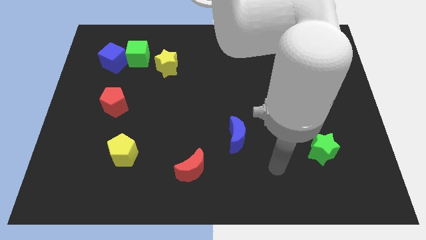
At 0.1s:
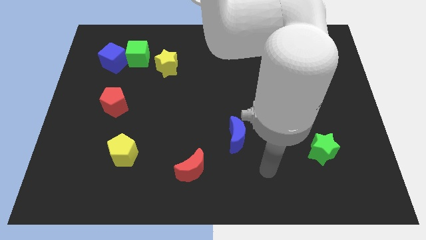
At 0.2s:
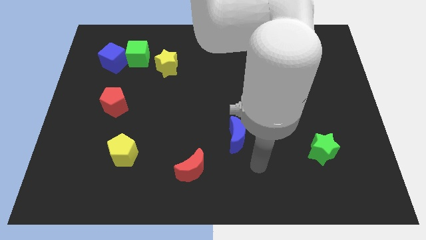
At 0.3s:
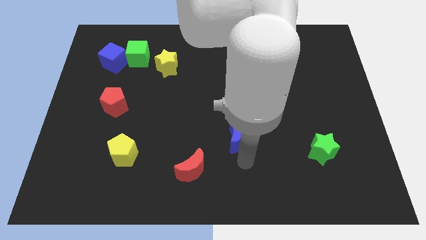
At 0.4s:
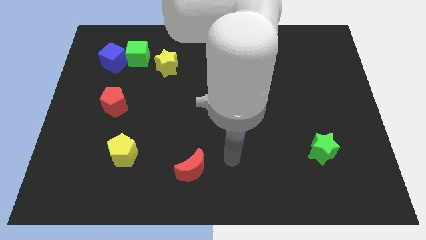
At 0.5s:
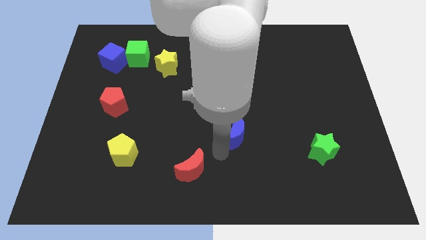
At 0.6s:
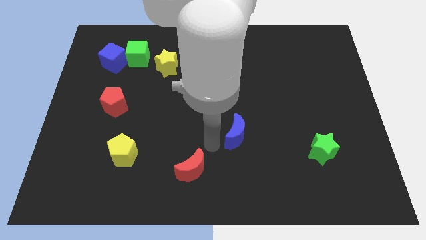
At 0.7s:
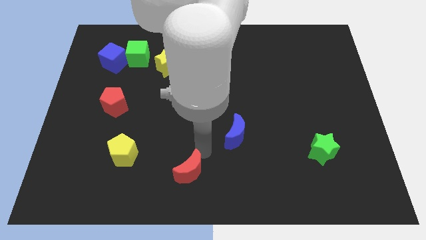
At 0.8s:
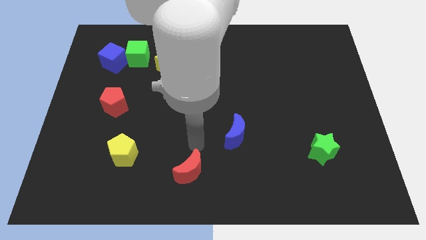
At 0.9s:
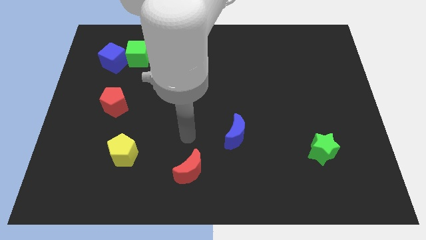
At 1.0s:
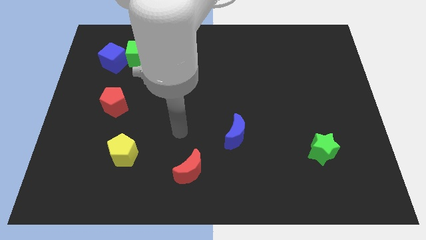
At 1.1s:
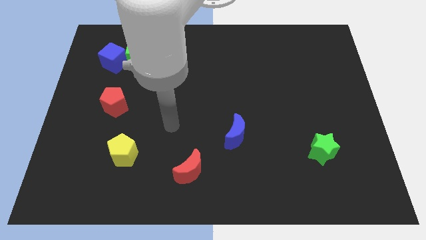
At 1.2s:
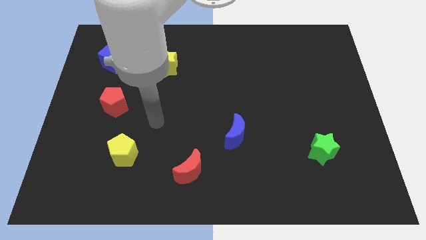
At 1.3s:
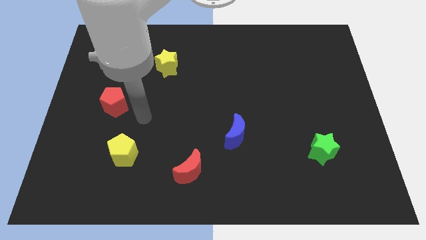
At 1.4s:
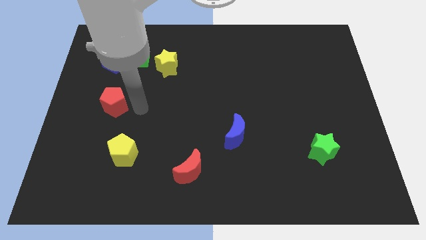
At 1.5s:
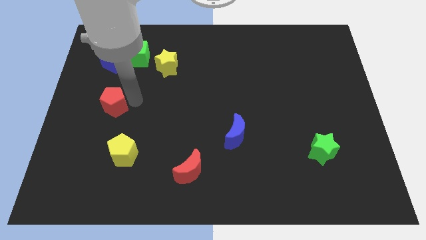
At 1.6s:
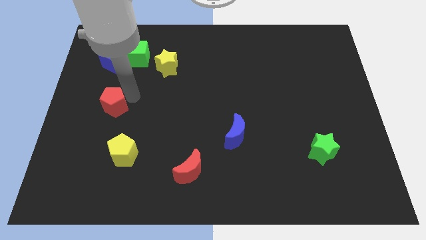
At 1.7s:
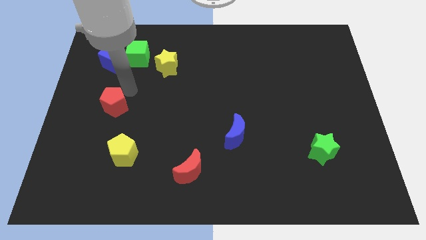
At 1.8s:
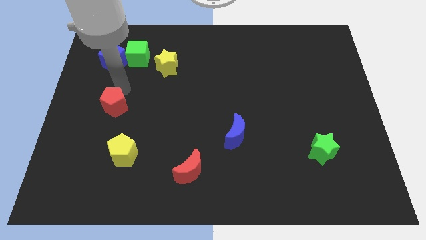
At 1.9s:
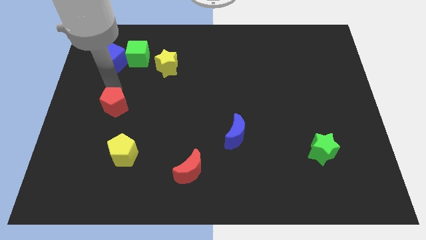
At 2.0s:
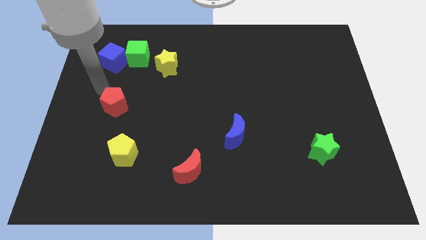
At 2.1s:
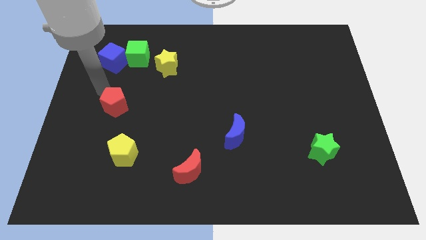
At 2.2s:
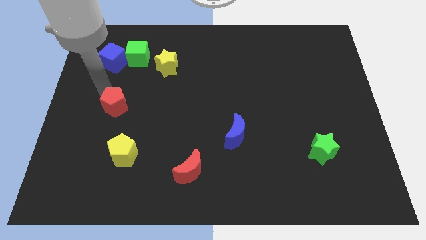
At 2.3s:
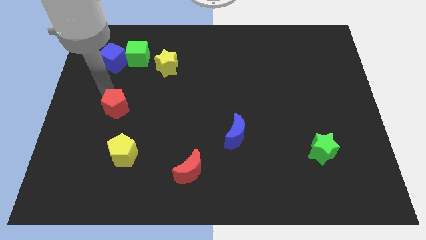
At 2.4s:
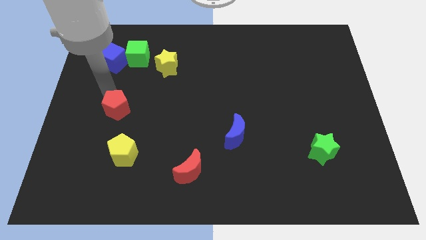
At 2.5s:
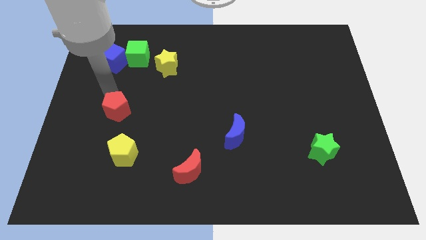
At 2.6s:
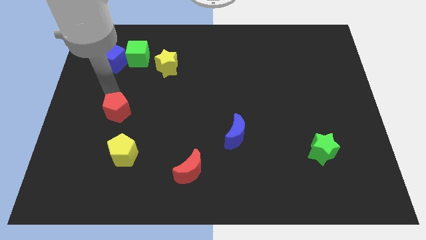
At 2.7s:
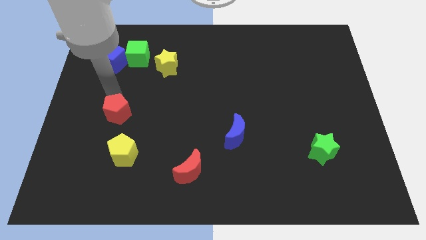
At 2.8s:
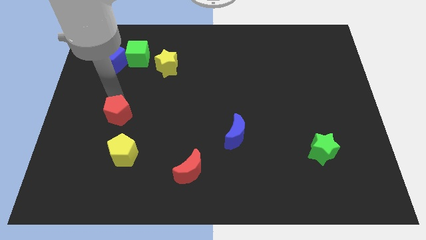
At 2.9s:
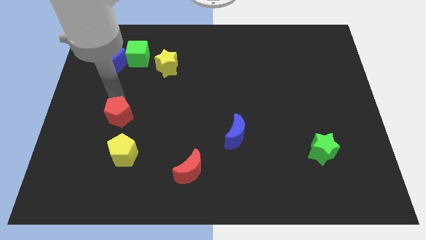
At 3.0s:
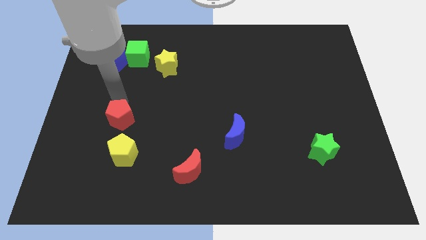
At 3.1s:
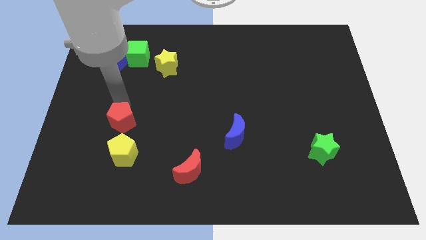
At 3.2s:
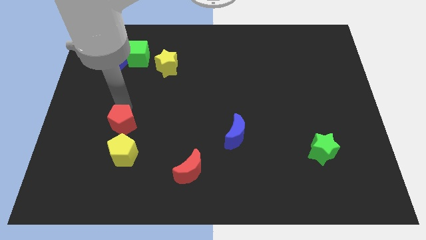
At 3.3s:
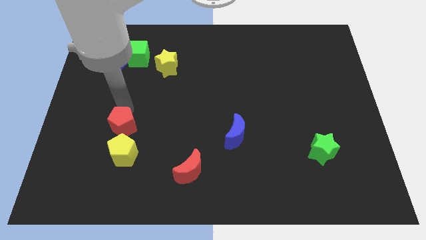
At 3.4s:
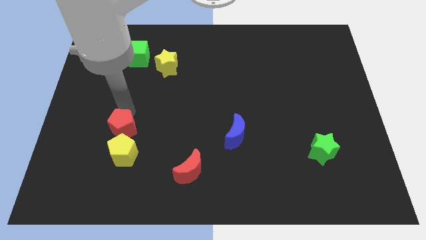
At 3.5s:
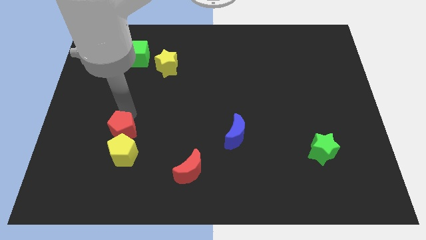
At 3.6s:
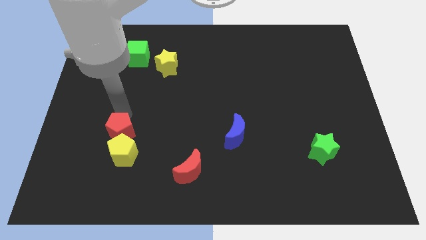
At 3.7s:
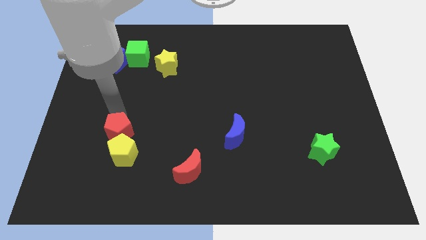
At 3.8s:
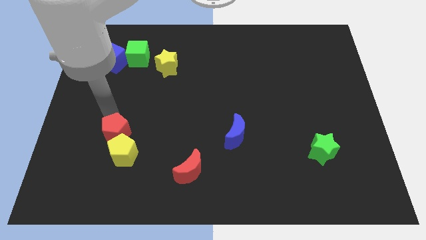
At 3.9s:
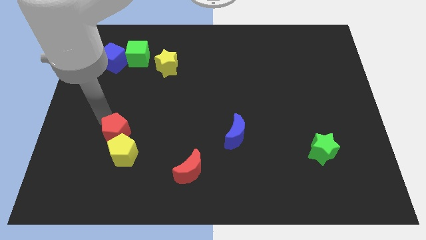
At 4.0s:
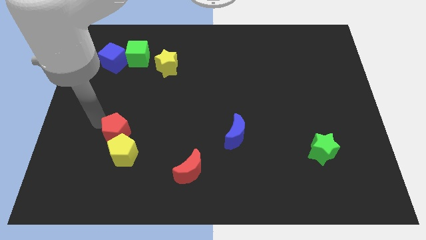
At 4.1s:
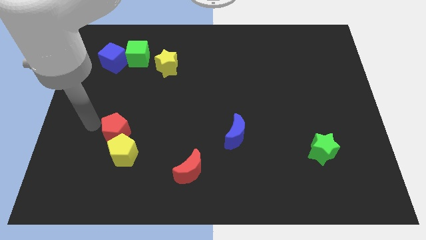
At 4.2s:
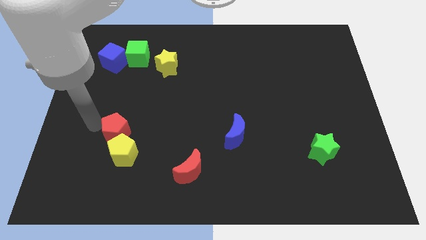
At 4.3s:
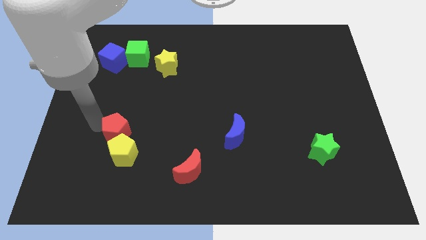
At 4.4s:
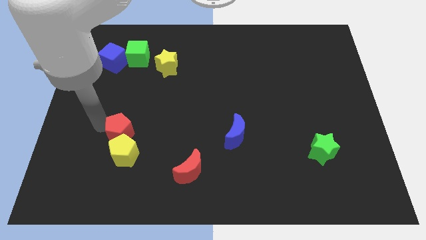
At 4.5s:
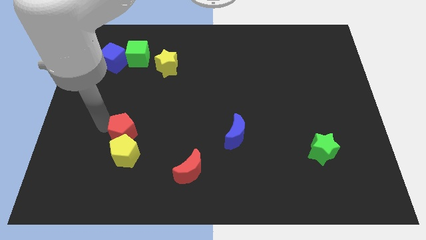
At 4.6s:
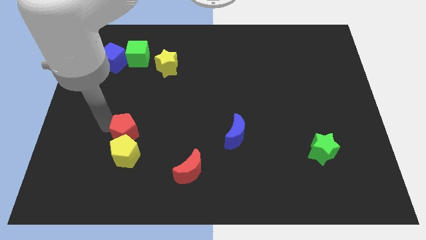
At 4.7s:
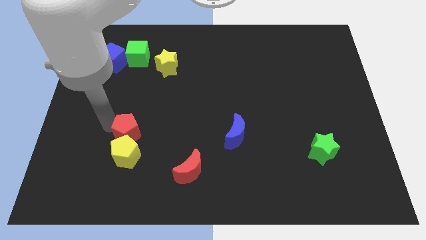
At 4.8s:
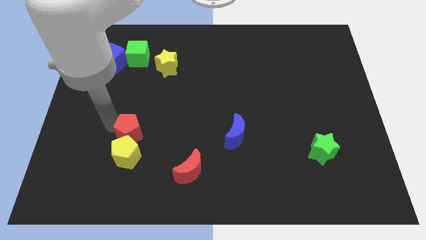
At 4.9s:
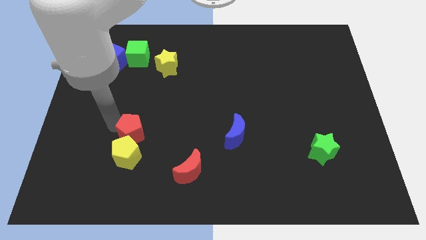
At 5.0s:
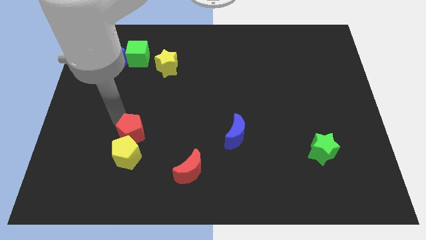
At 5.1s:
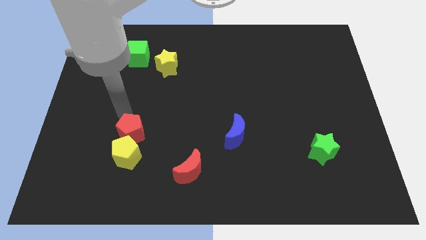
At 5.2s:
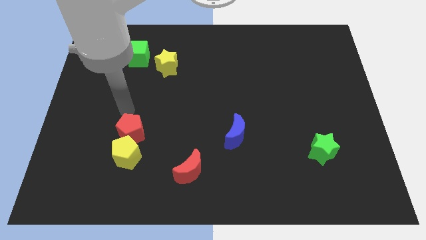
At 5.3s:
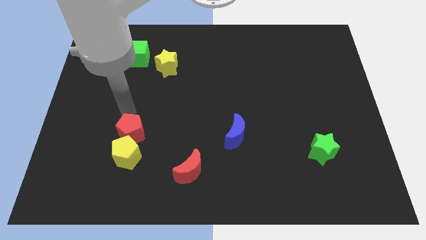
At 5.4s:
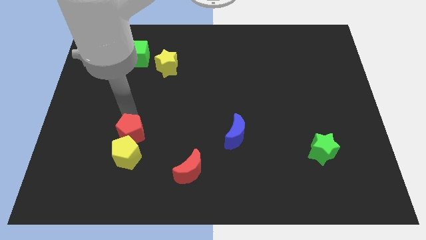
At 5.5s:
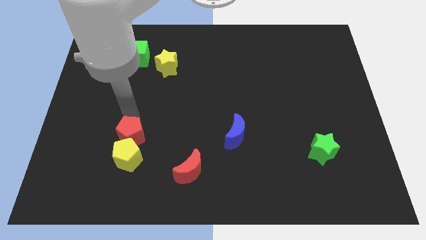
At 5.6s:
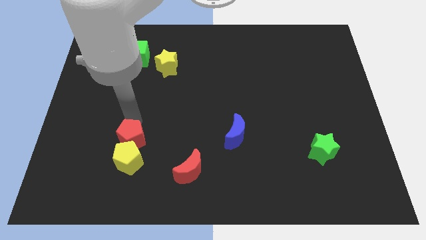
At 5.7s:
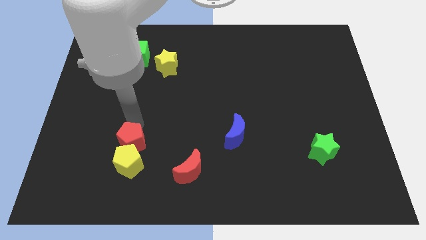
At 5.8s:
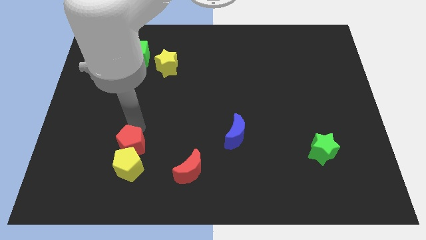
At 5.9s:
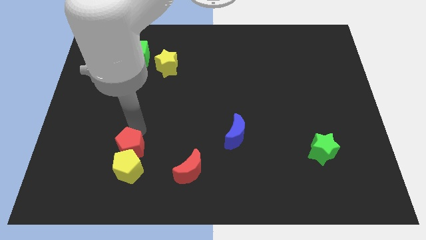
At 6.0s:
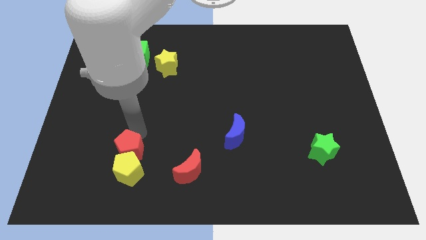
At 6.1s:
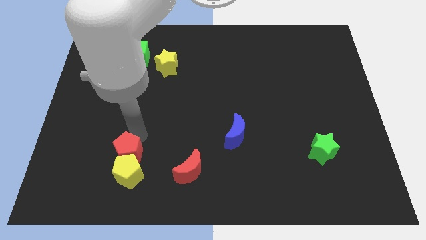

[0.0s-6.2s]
move the red pentagon to the left side of the red moon

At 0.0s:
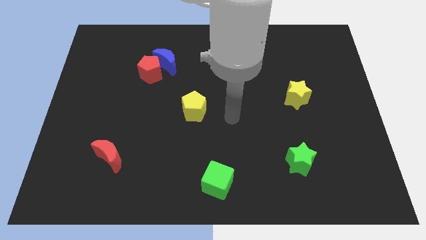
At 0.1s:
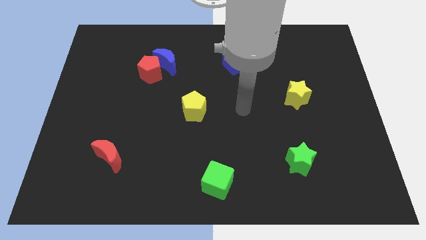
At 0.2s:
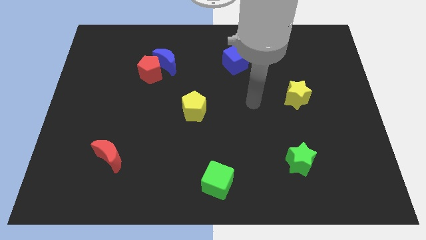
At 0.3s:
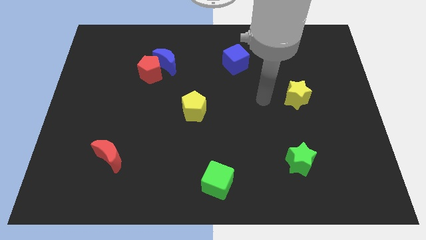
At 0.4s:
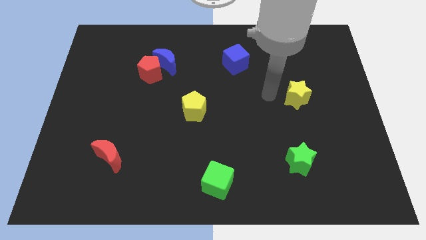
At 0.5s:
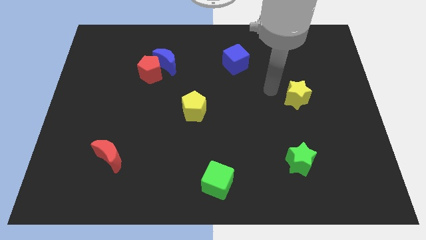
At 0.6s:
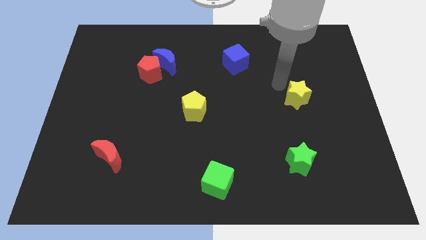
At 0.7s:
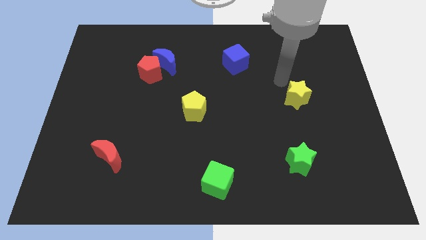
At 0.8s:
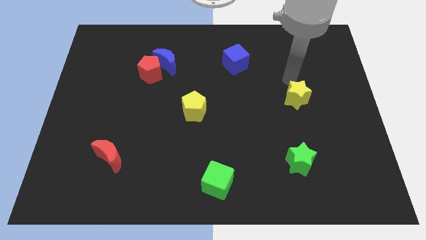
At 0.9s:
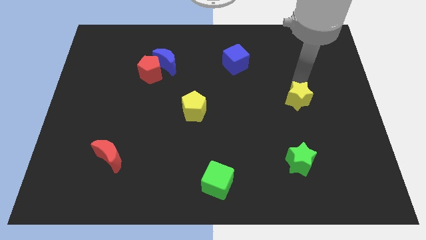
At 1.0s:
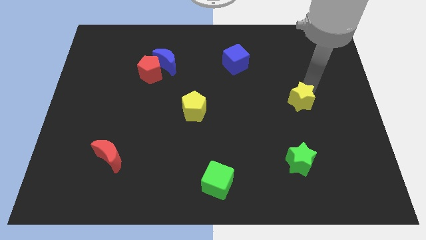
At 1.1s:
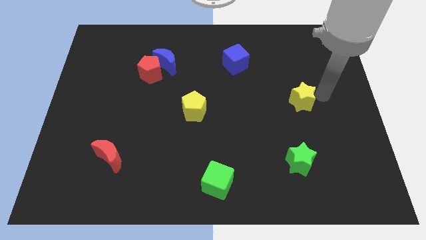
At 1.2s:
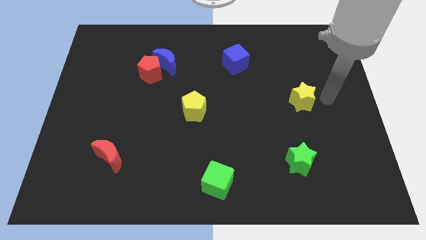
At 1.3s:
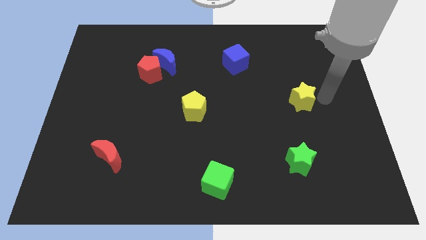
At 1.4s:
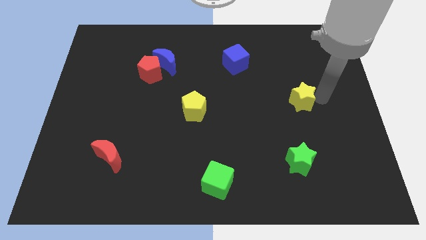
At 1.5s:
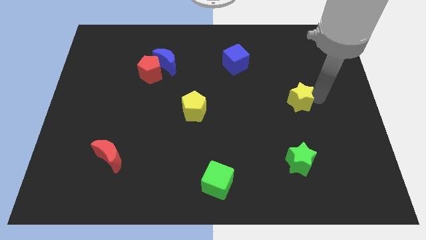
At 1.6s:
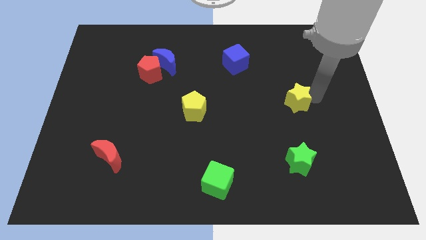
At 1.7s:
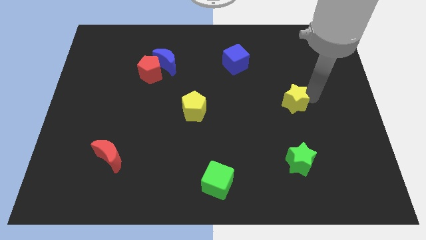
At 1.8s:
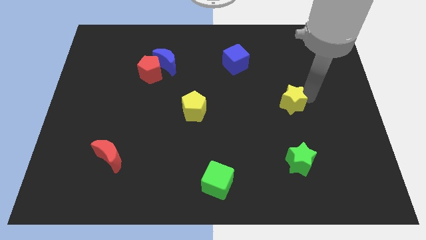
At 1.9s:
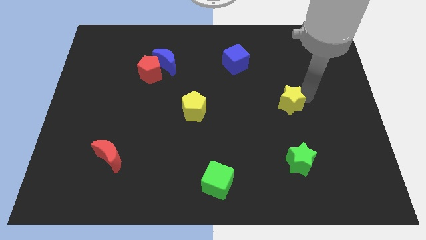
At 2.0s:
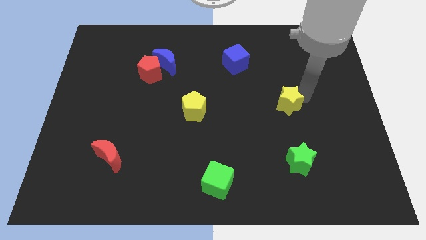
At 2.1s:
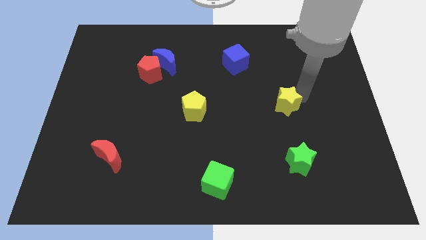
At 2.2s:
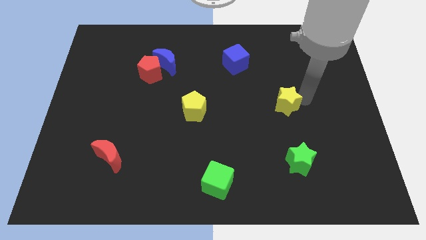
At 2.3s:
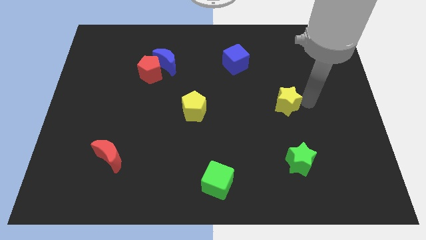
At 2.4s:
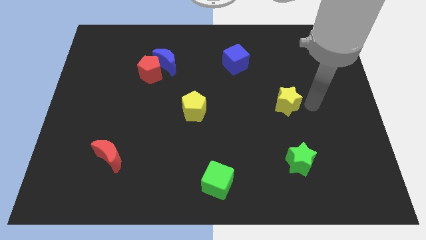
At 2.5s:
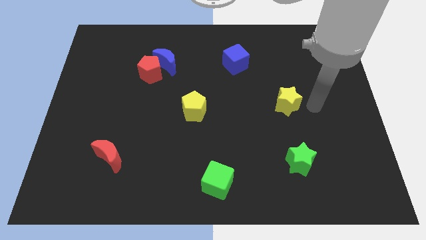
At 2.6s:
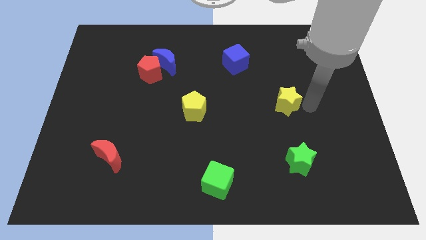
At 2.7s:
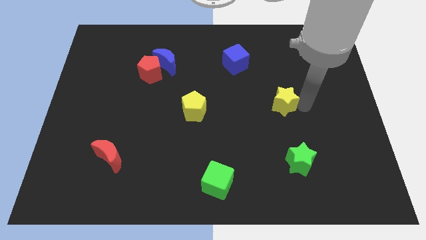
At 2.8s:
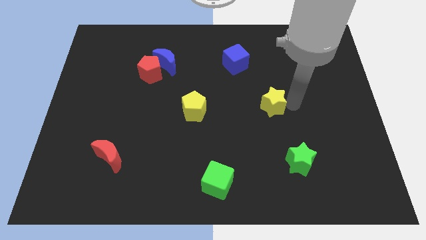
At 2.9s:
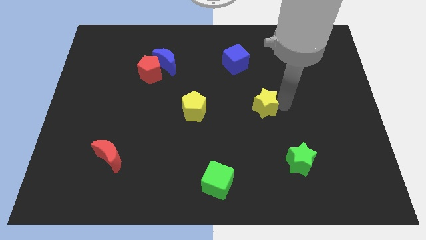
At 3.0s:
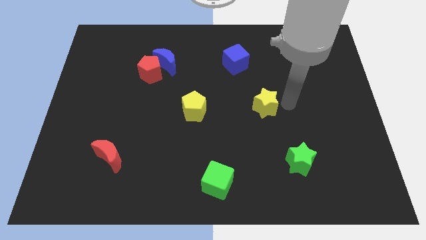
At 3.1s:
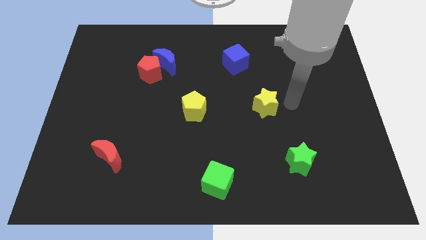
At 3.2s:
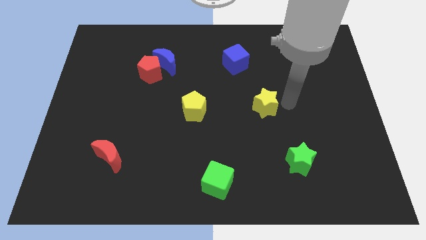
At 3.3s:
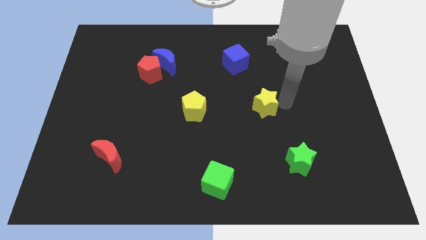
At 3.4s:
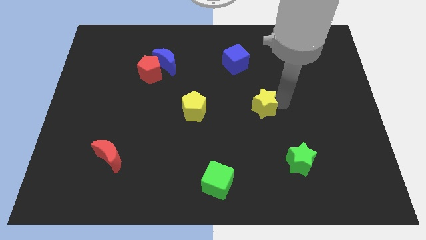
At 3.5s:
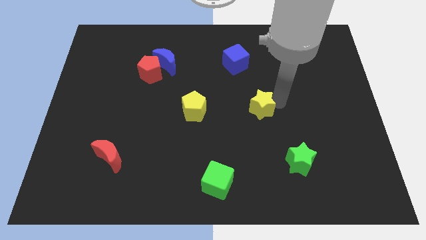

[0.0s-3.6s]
put the yellow star just right of the yellow pentagon
